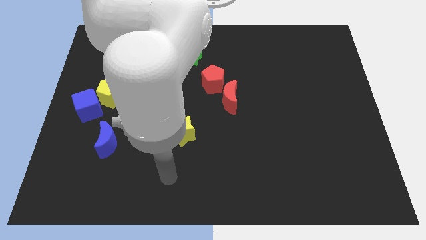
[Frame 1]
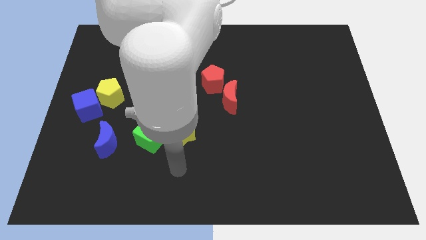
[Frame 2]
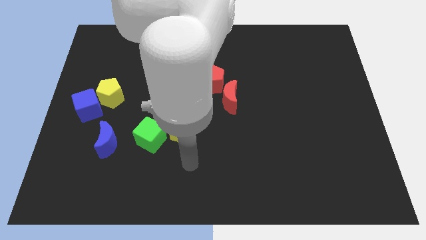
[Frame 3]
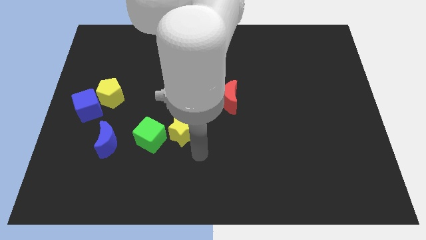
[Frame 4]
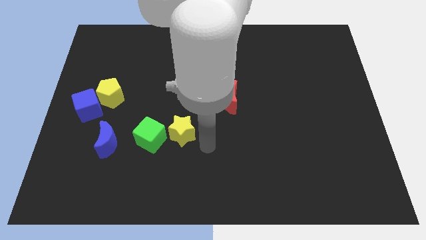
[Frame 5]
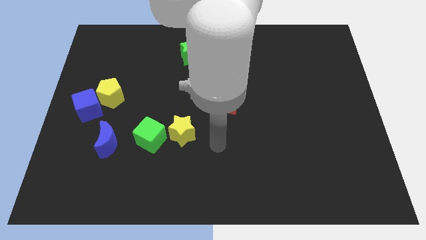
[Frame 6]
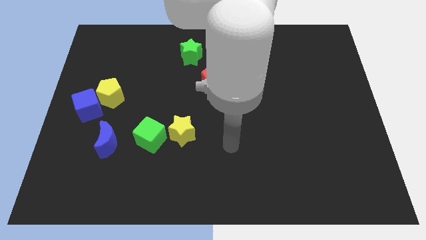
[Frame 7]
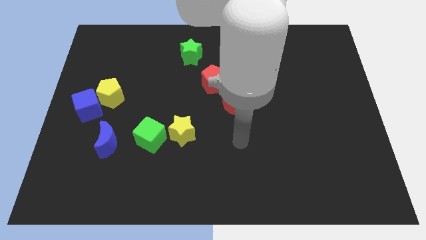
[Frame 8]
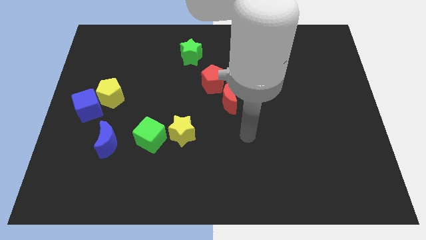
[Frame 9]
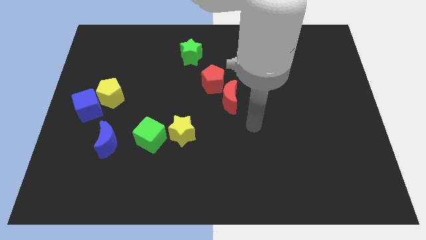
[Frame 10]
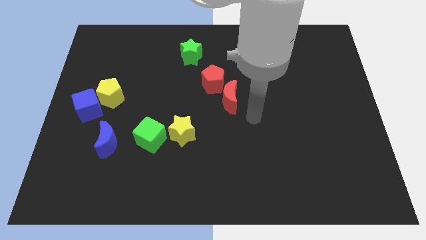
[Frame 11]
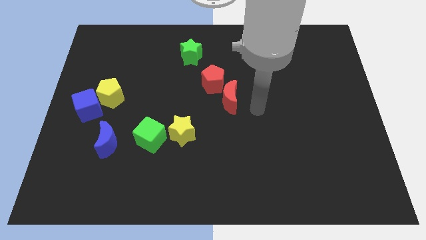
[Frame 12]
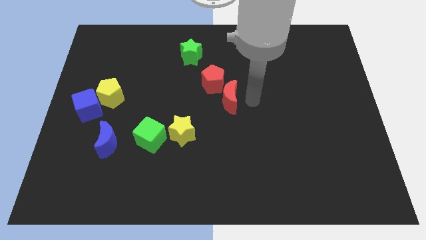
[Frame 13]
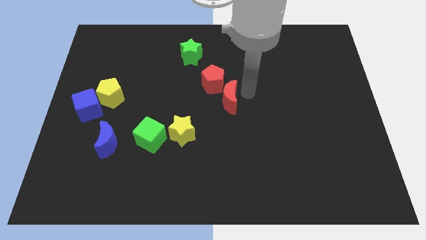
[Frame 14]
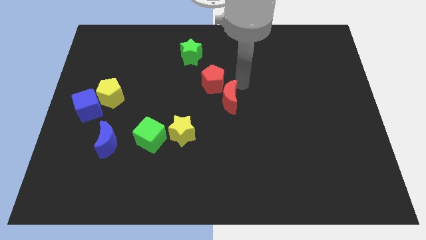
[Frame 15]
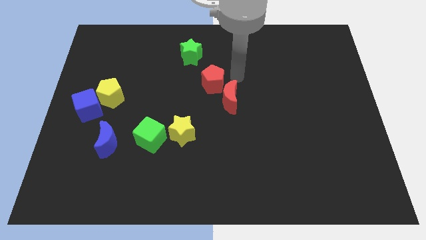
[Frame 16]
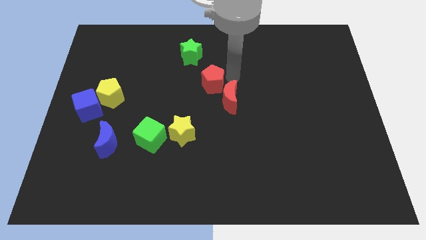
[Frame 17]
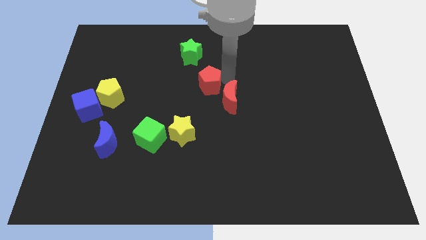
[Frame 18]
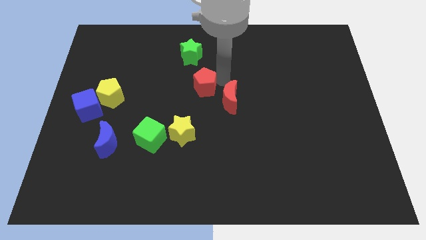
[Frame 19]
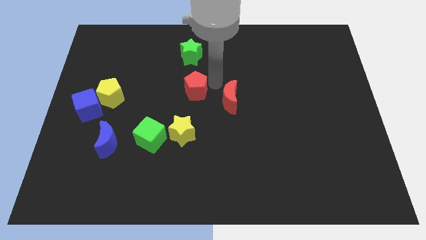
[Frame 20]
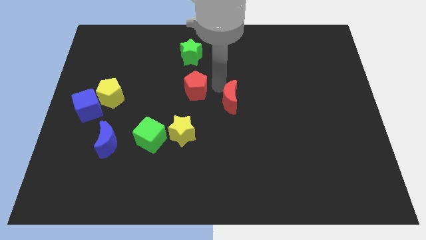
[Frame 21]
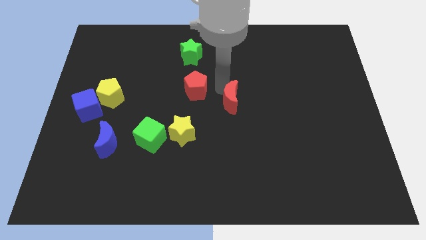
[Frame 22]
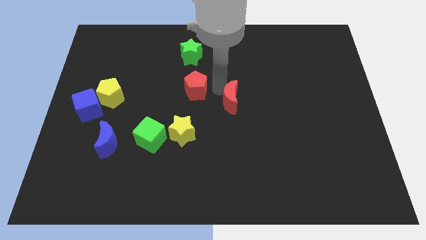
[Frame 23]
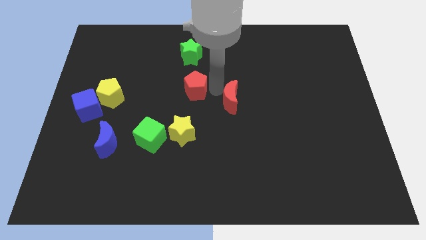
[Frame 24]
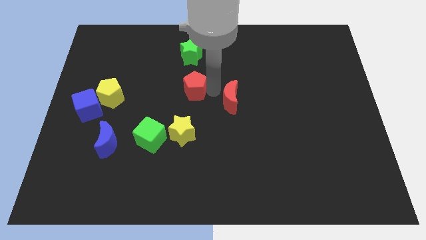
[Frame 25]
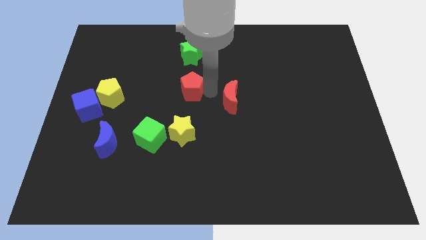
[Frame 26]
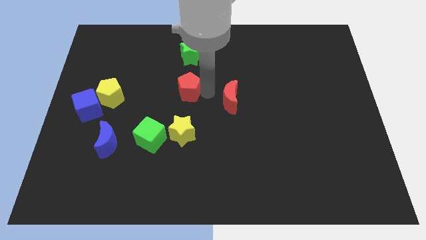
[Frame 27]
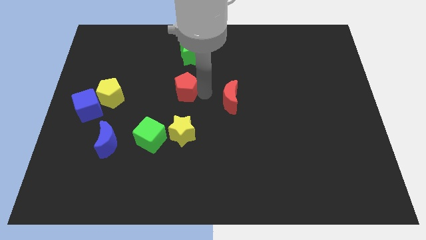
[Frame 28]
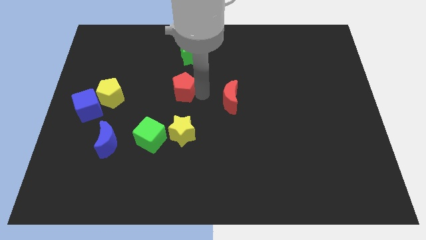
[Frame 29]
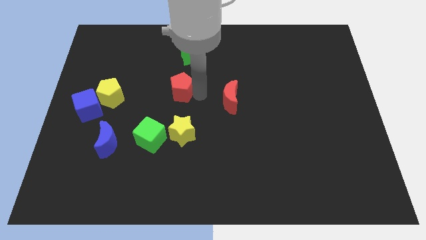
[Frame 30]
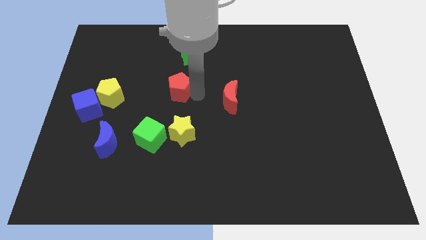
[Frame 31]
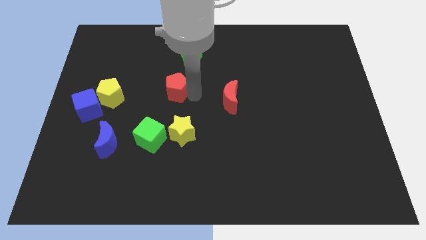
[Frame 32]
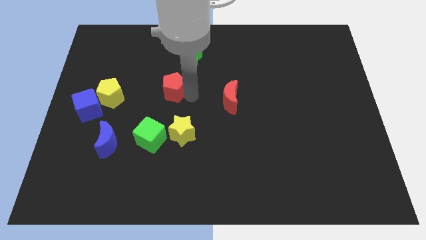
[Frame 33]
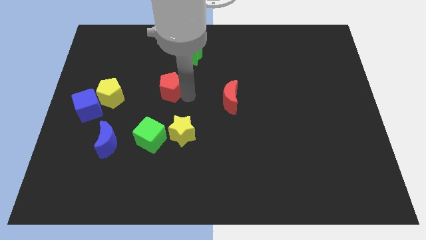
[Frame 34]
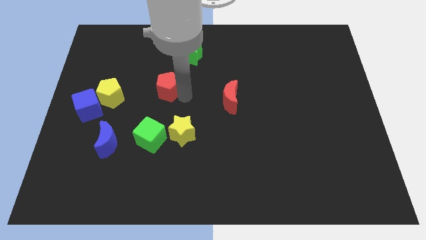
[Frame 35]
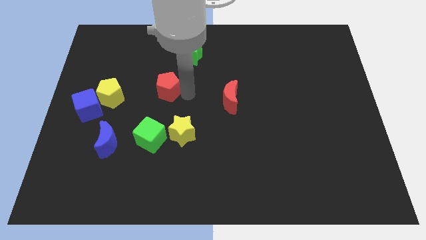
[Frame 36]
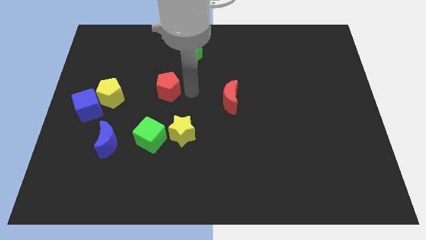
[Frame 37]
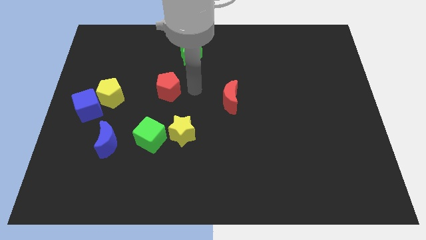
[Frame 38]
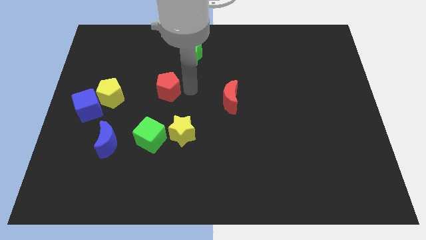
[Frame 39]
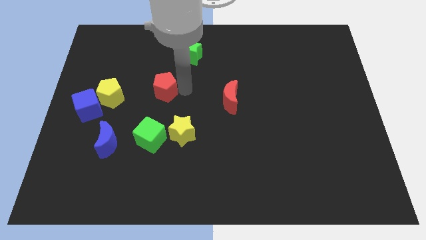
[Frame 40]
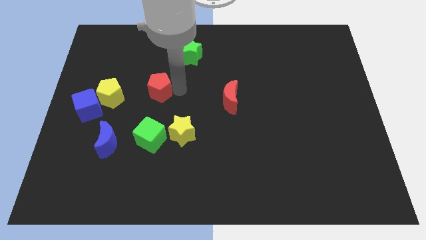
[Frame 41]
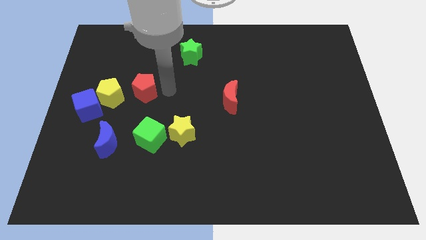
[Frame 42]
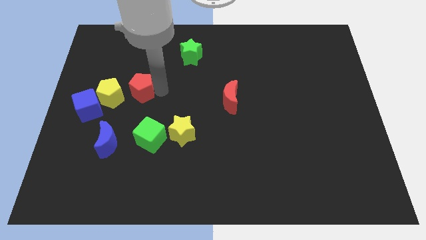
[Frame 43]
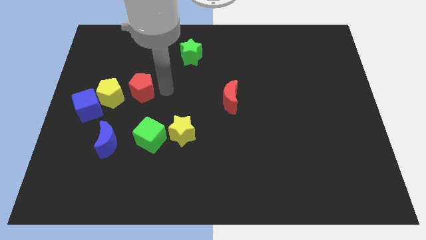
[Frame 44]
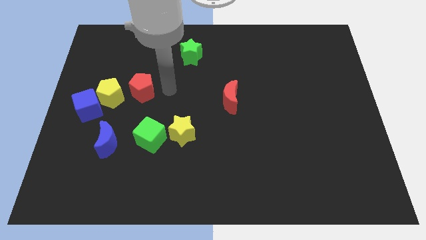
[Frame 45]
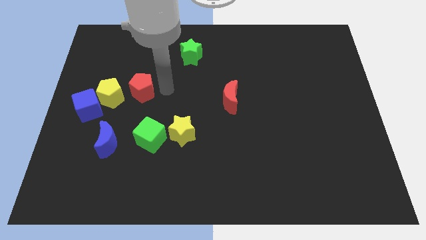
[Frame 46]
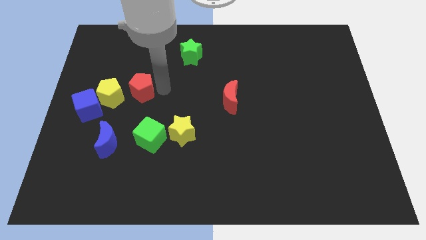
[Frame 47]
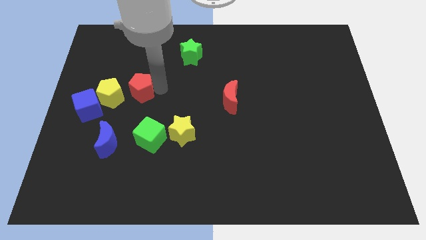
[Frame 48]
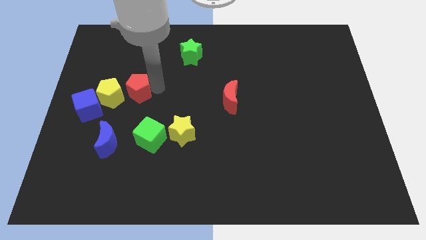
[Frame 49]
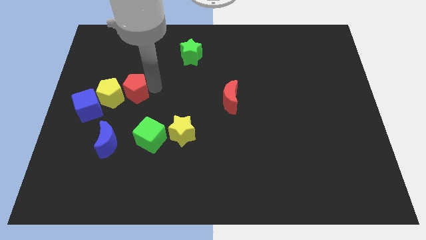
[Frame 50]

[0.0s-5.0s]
push the red pentagon to the top right of the blue cube

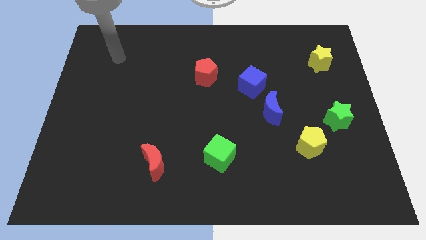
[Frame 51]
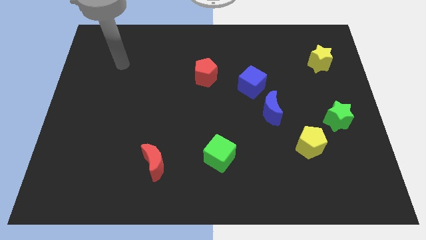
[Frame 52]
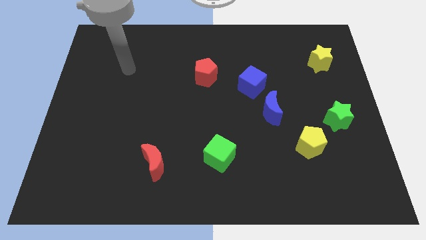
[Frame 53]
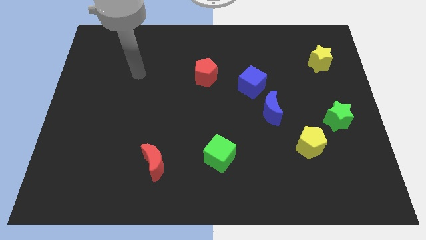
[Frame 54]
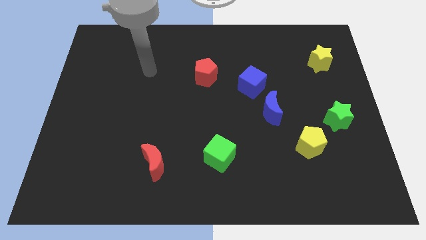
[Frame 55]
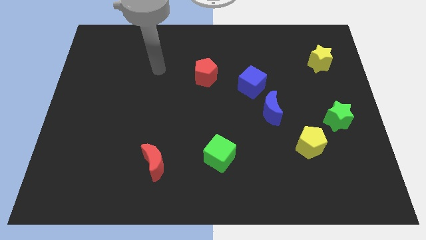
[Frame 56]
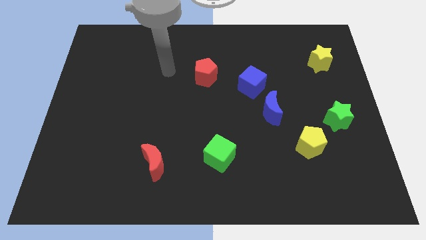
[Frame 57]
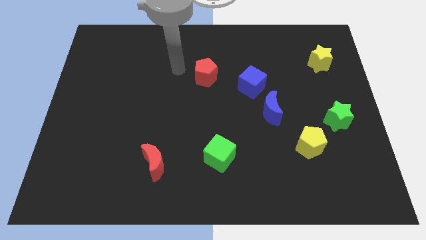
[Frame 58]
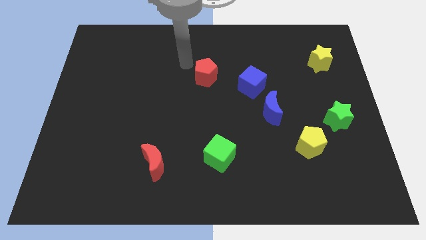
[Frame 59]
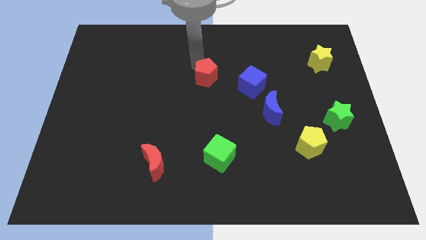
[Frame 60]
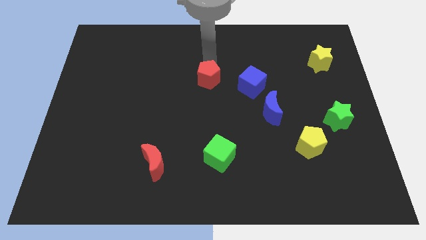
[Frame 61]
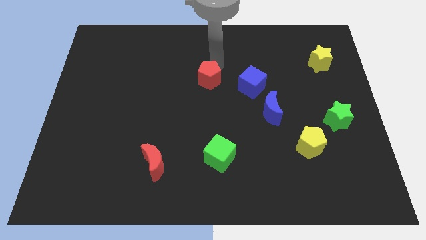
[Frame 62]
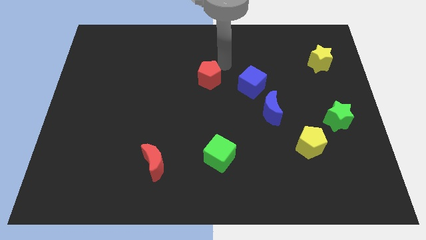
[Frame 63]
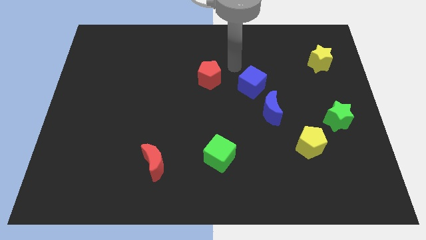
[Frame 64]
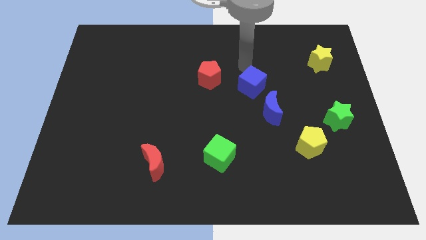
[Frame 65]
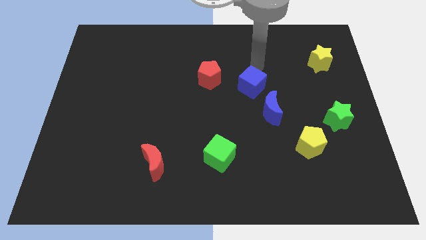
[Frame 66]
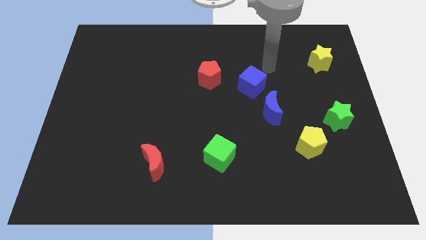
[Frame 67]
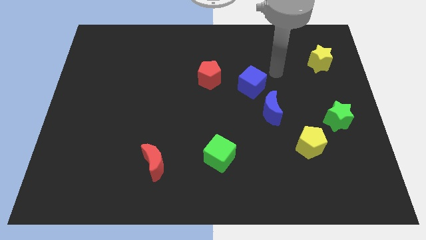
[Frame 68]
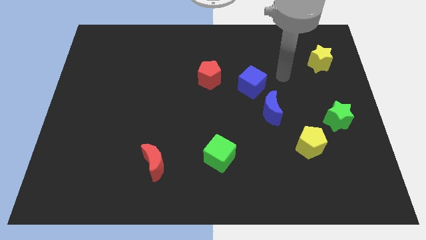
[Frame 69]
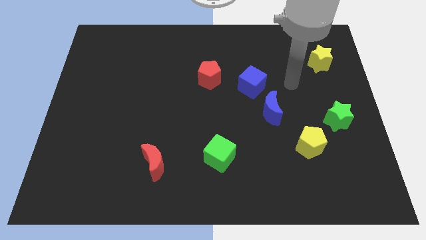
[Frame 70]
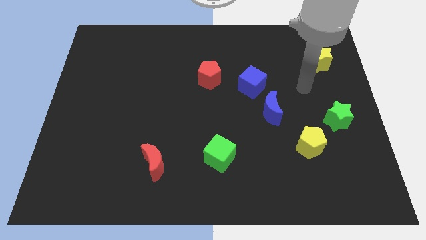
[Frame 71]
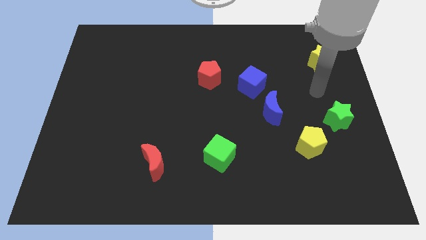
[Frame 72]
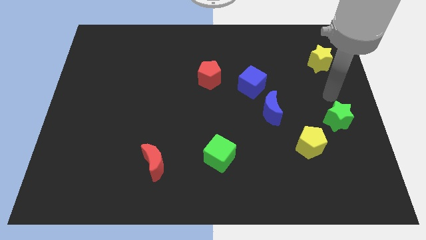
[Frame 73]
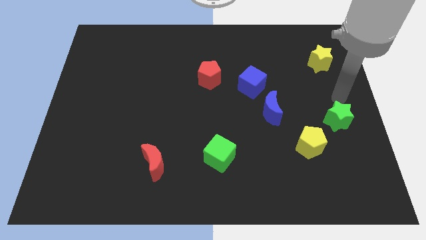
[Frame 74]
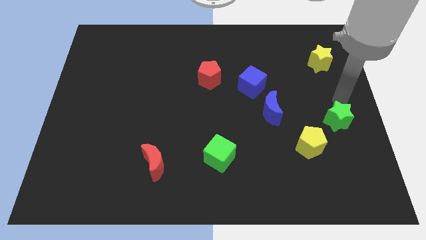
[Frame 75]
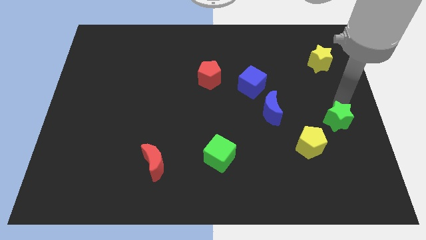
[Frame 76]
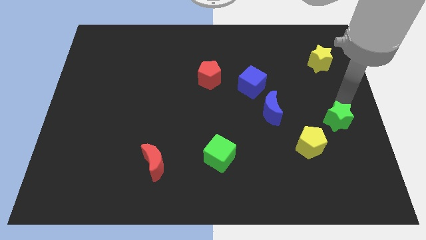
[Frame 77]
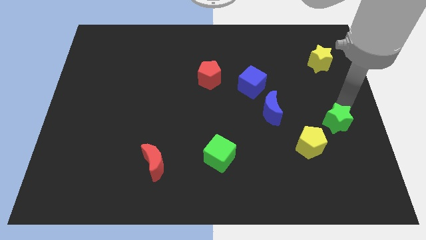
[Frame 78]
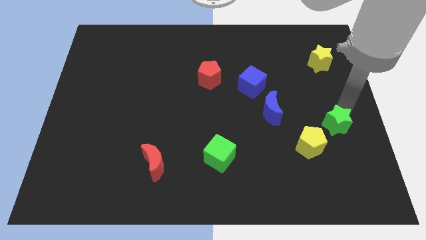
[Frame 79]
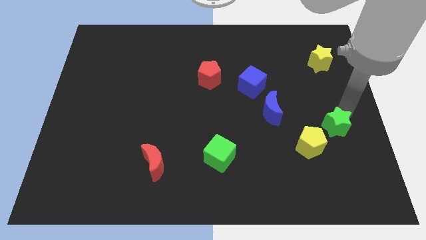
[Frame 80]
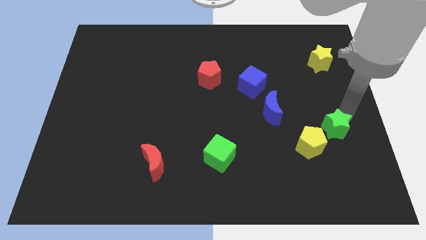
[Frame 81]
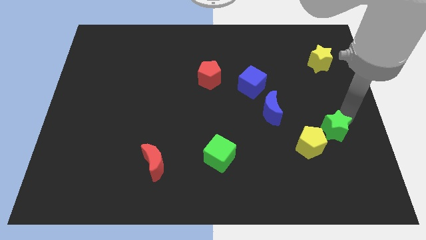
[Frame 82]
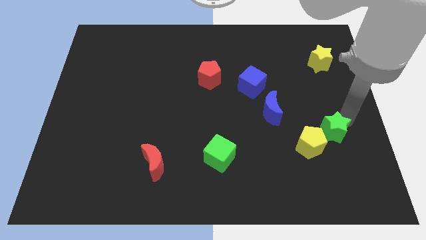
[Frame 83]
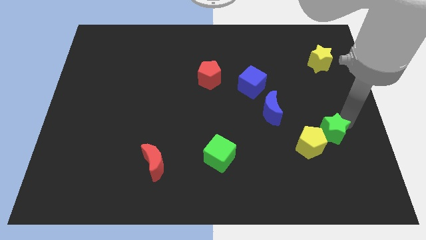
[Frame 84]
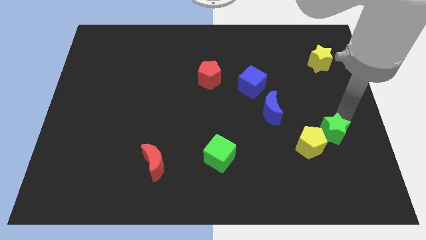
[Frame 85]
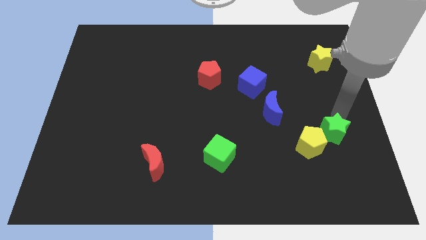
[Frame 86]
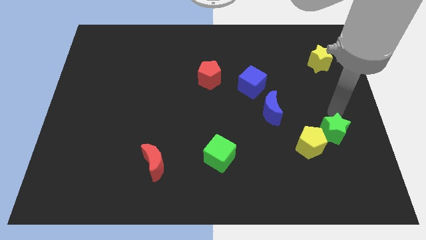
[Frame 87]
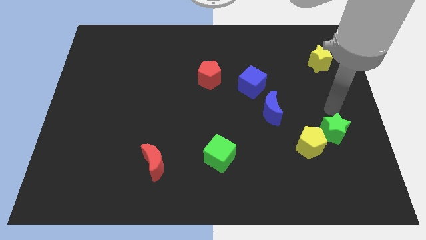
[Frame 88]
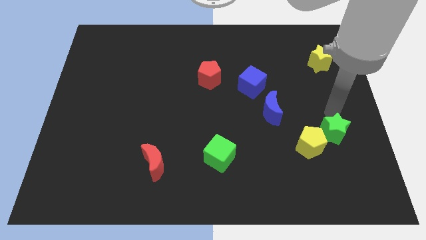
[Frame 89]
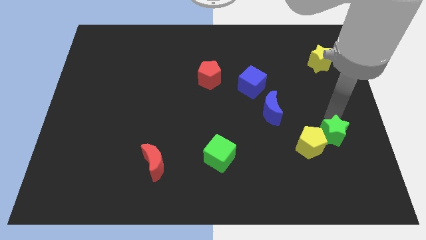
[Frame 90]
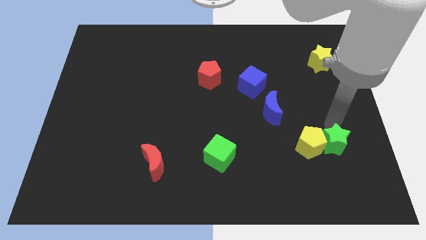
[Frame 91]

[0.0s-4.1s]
slide the green star to the bottom right of the yellow pentagon
